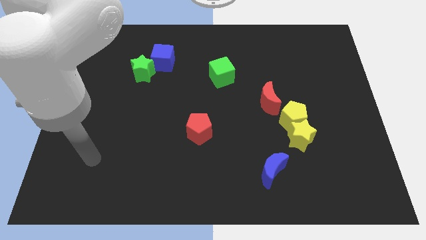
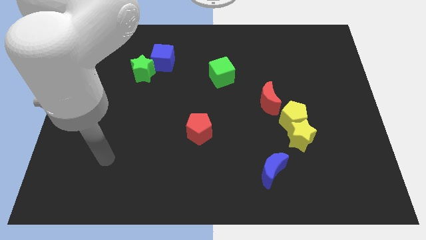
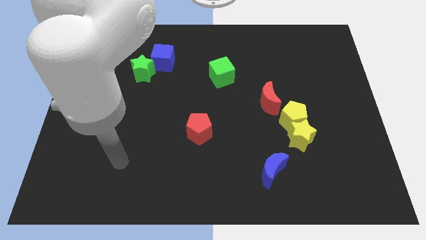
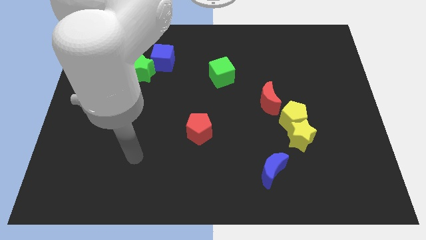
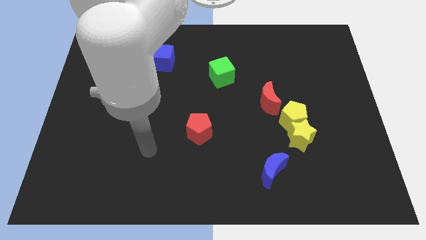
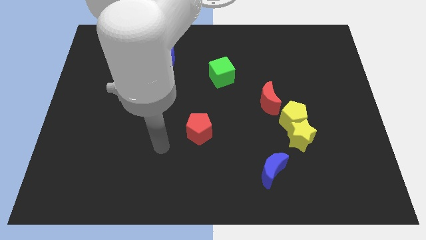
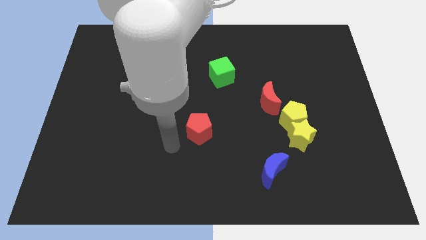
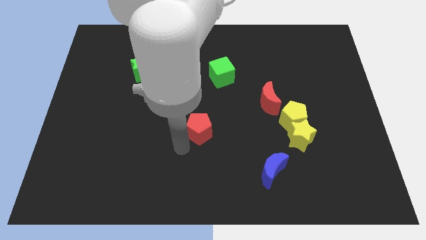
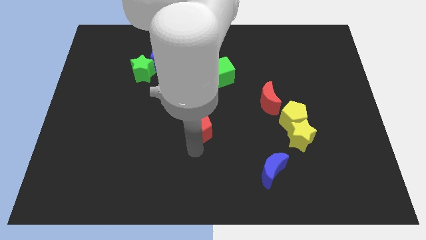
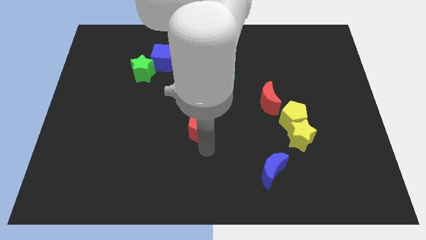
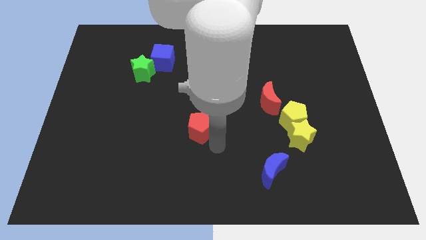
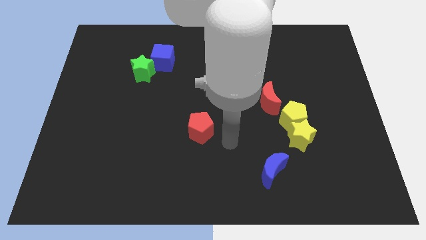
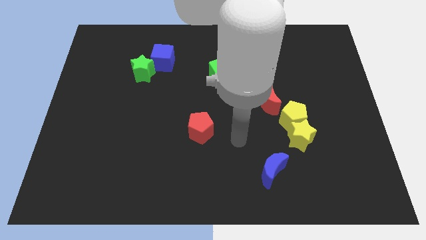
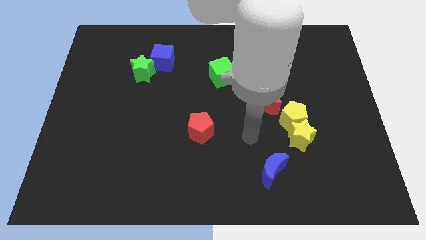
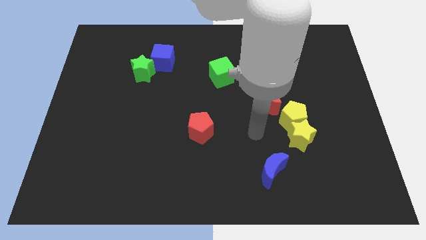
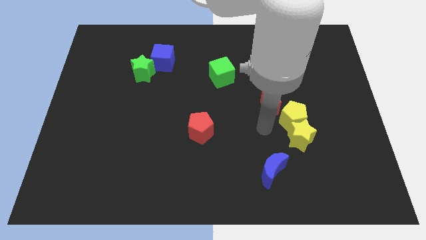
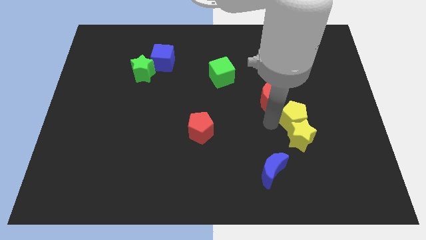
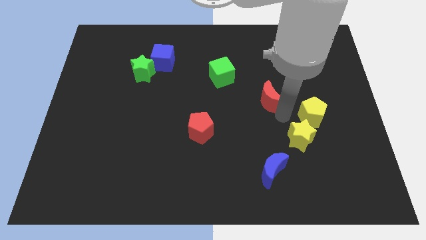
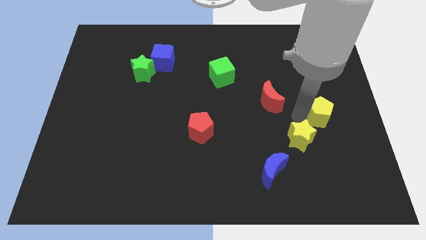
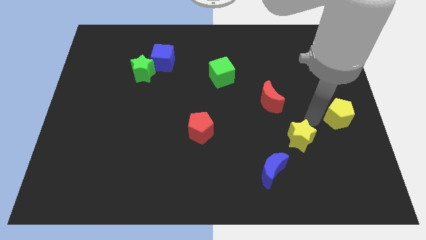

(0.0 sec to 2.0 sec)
separate the yellow star from the yellow pentagon

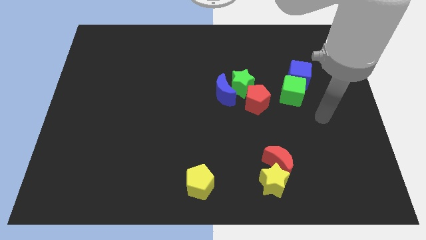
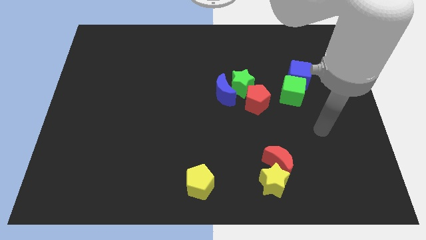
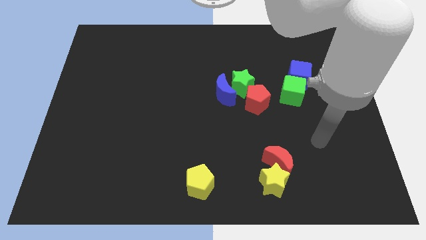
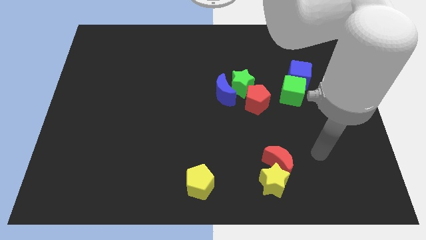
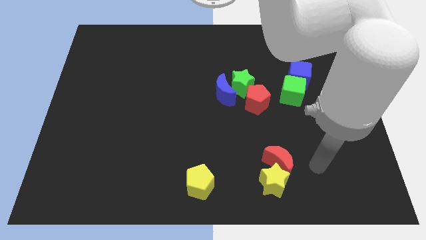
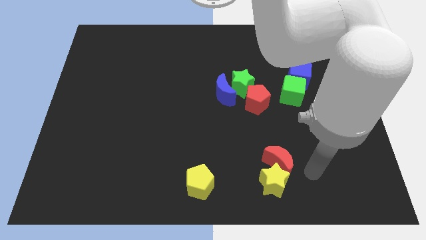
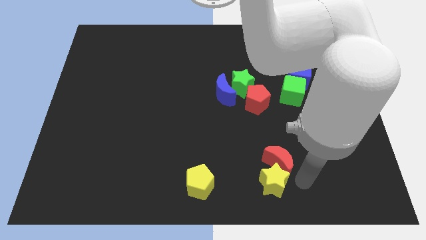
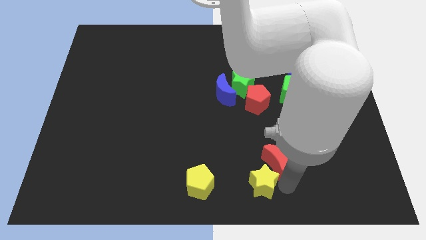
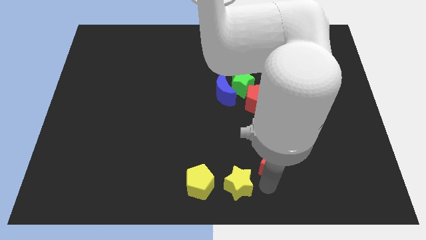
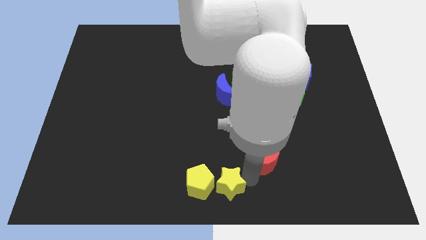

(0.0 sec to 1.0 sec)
pull the red moon apart from the yellow star

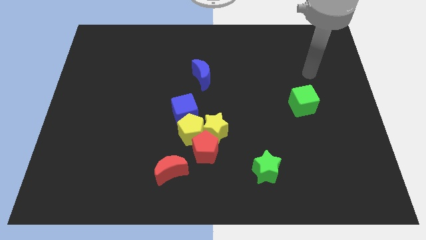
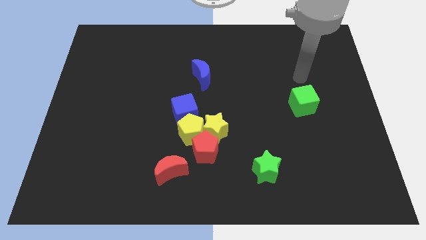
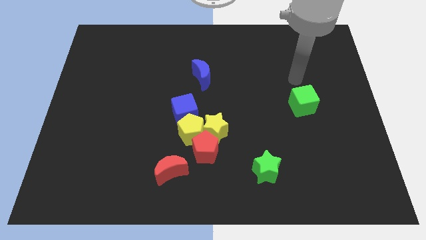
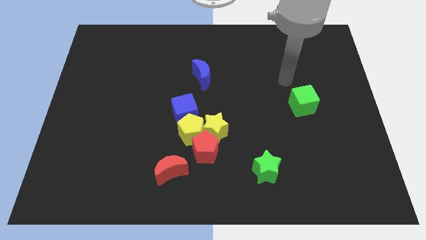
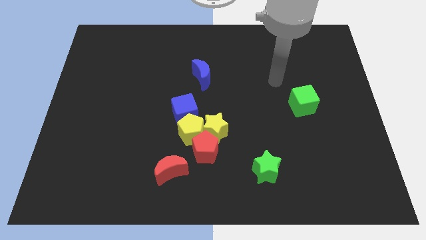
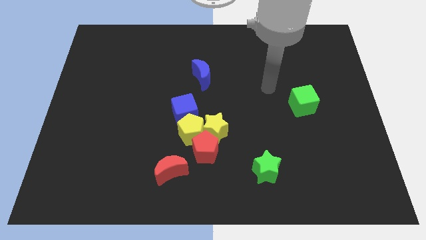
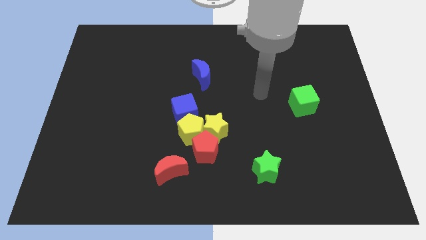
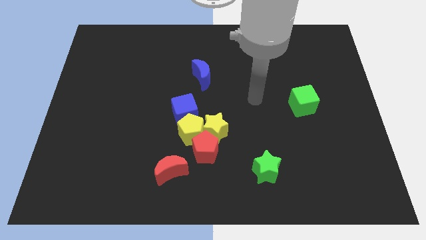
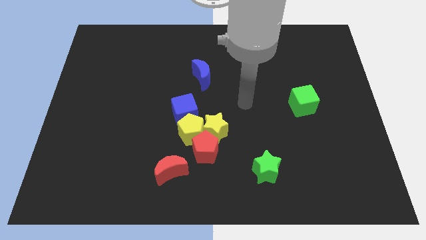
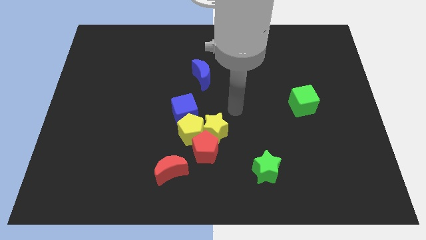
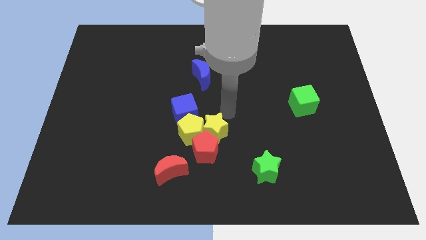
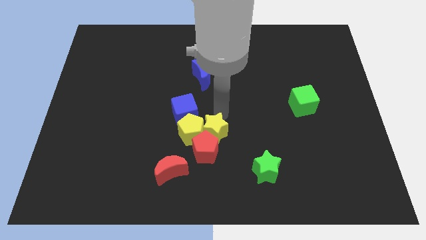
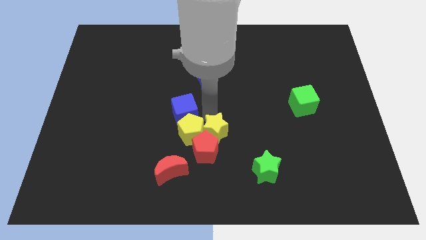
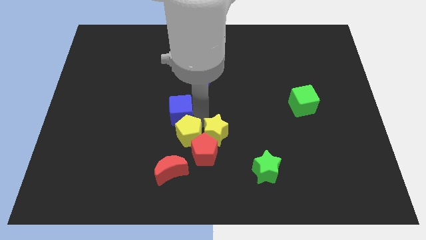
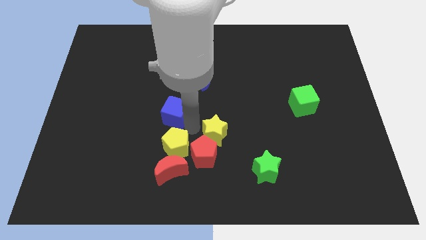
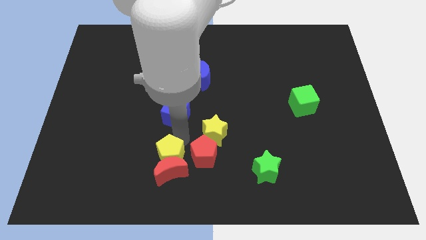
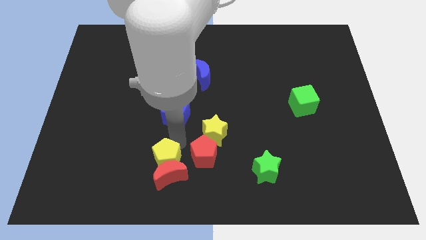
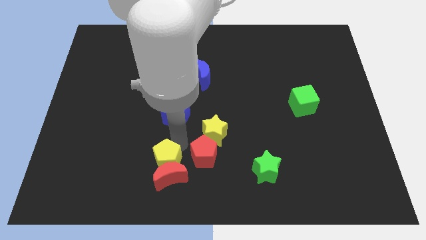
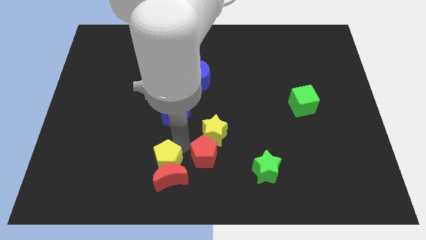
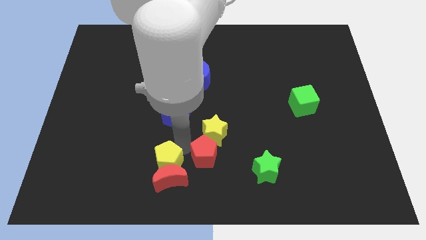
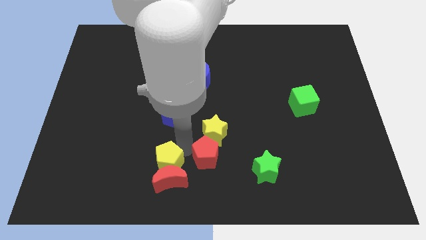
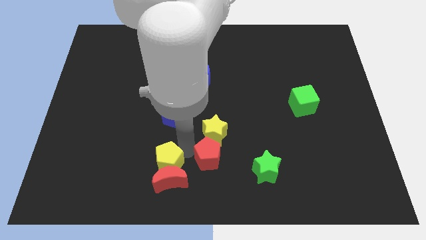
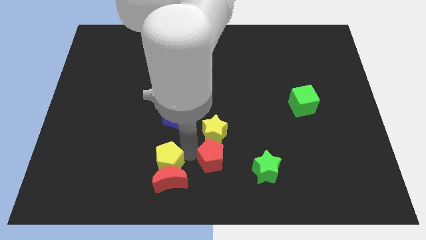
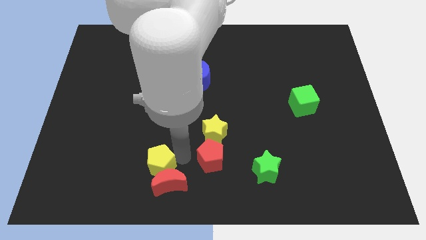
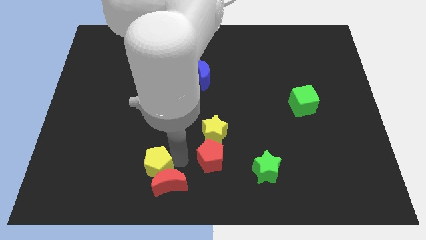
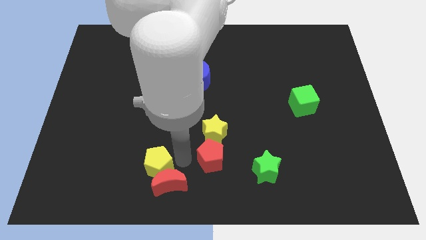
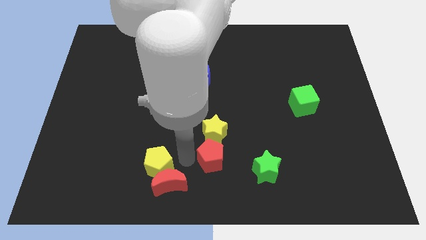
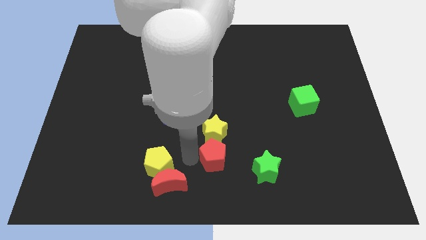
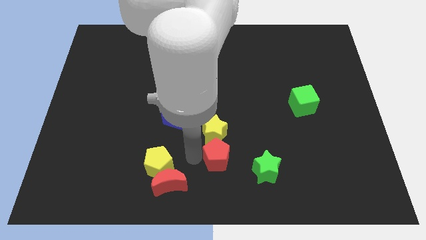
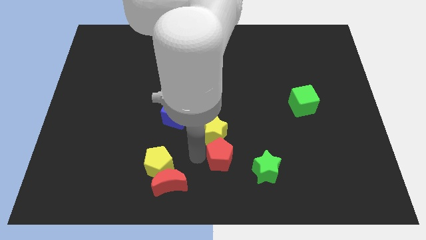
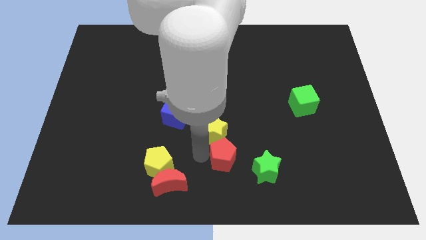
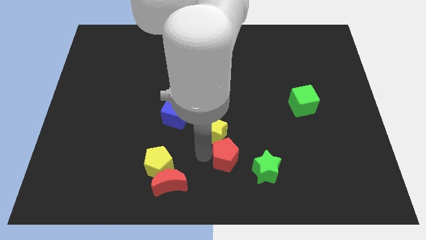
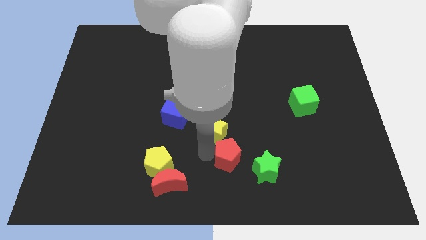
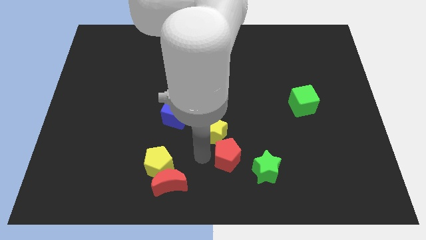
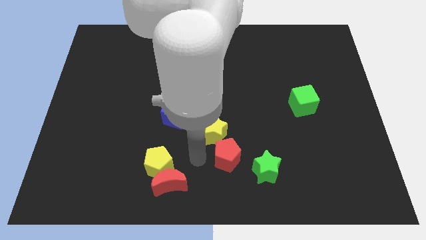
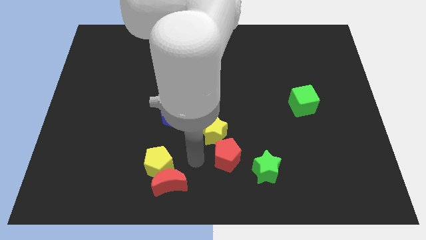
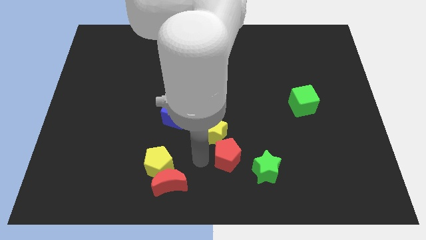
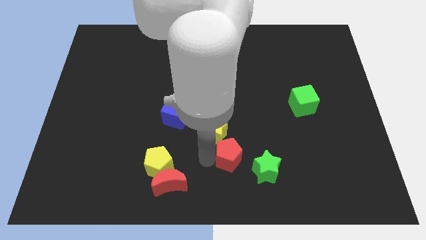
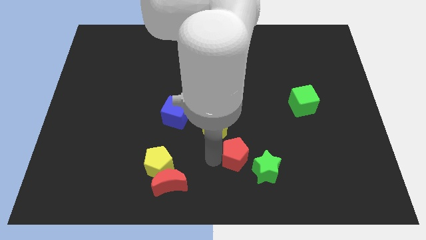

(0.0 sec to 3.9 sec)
separate the red pentagon from the clump

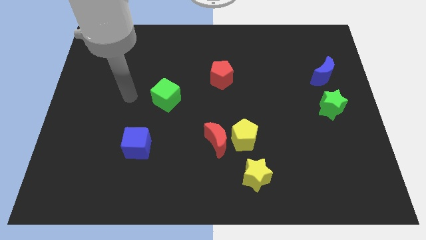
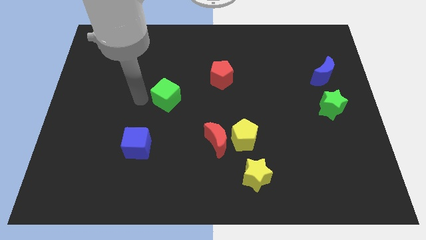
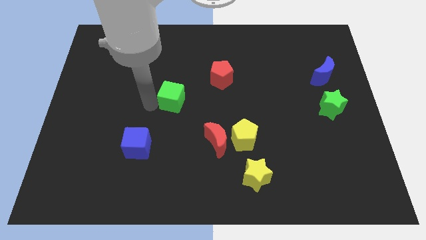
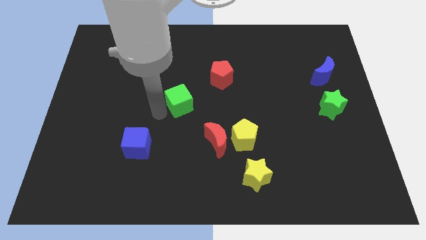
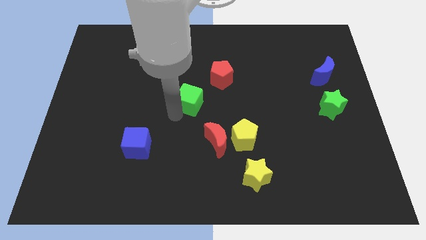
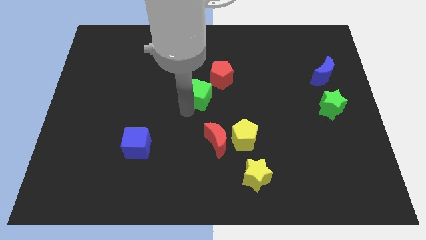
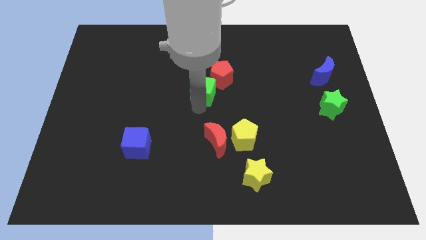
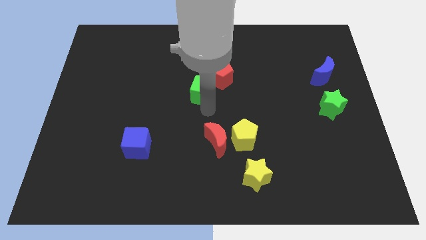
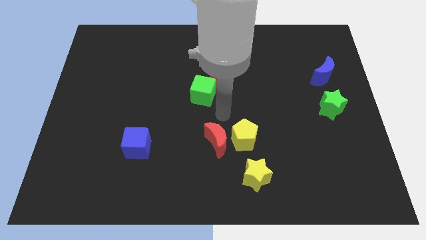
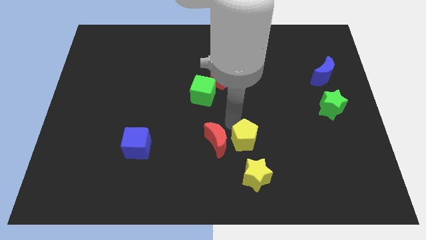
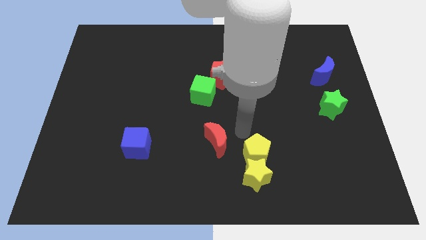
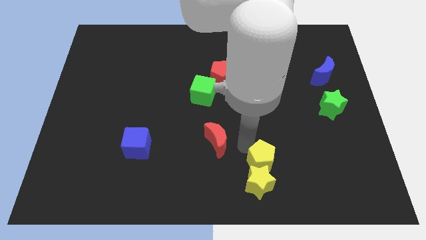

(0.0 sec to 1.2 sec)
pull the red moon apart from the yellow pentagon

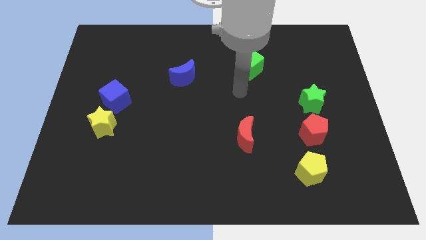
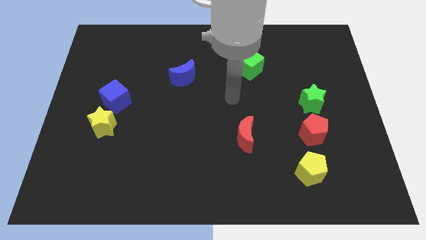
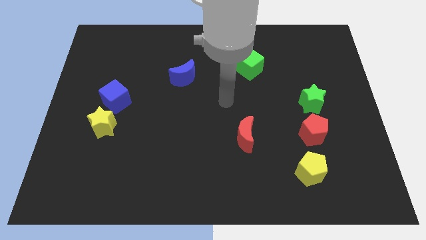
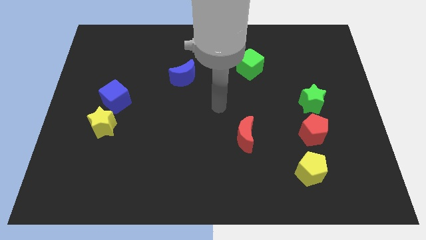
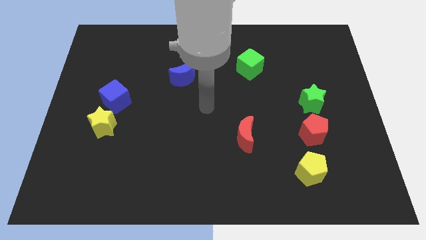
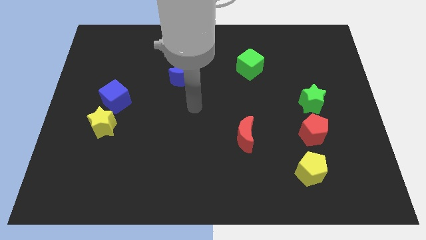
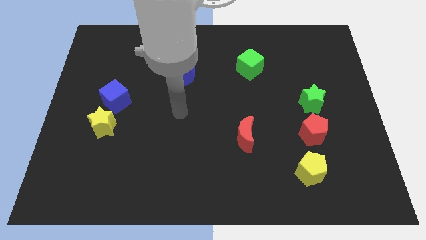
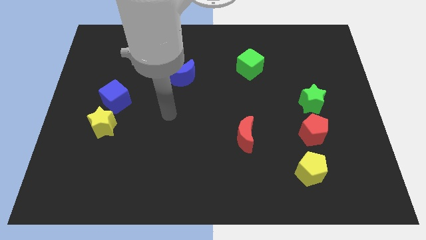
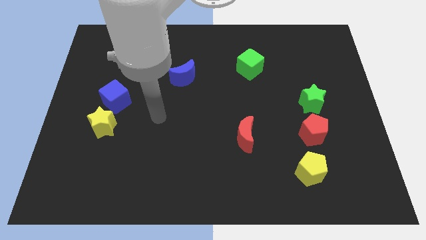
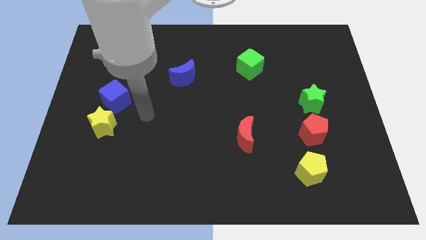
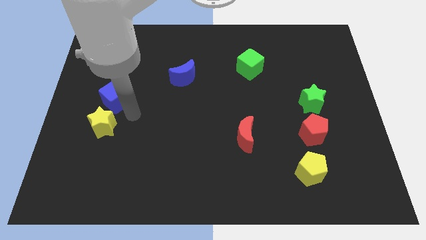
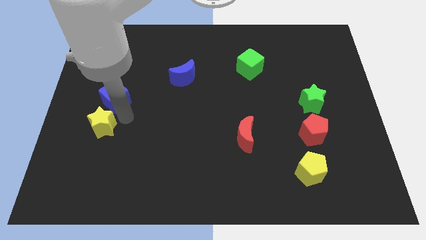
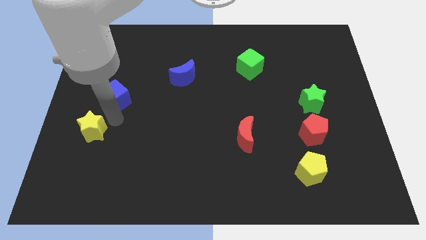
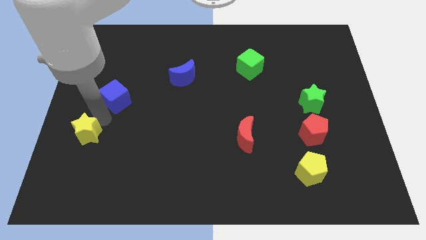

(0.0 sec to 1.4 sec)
pull the blue cube apart from the yellow star
